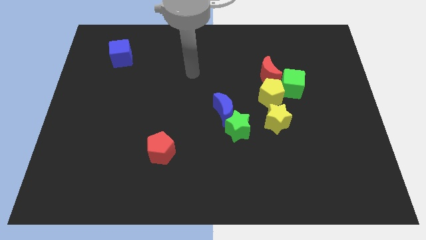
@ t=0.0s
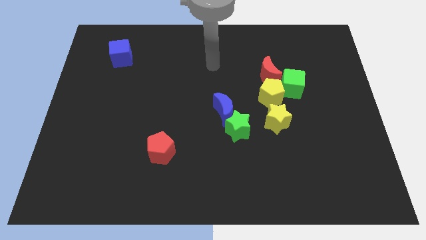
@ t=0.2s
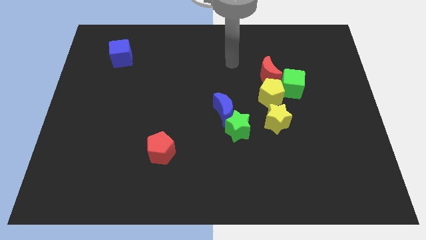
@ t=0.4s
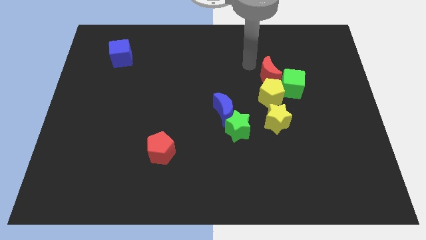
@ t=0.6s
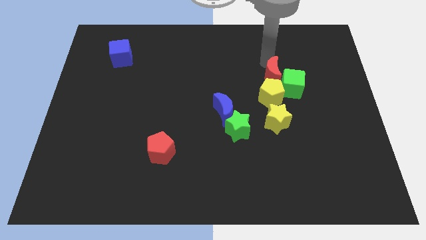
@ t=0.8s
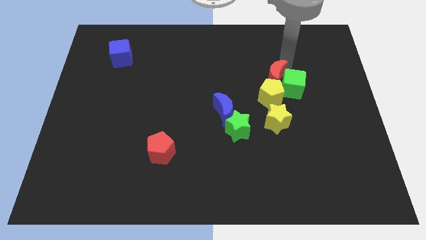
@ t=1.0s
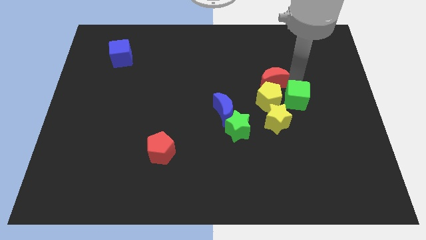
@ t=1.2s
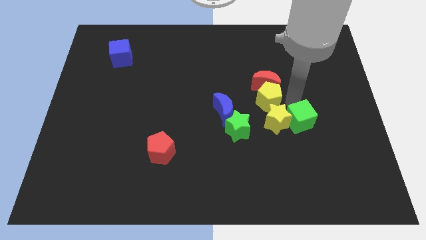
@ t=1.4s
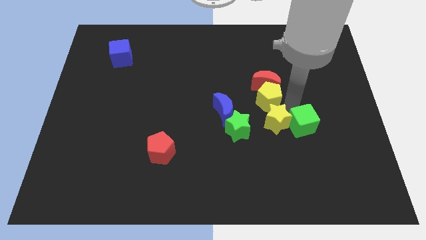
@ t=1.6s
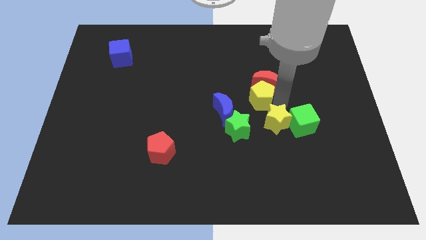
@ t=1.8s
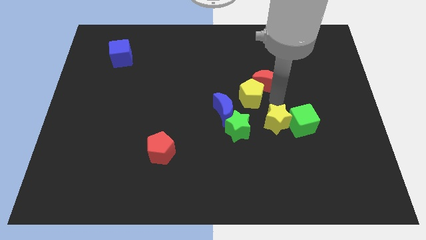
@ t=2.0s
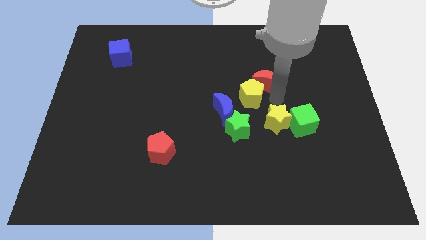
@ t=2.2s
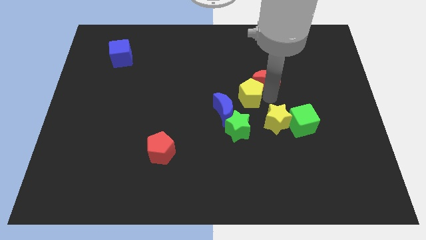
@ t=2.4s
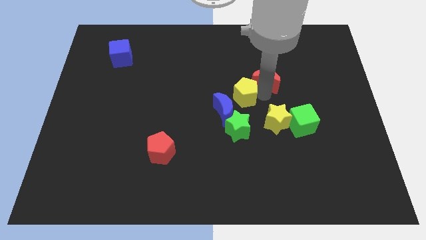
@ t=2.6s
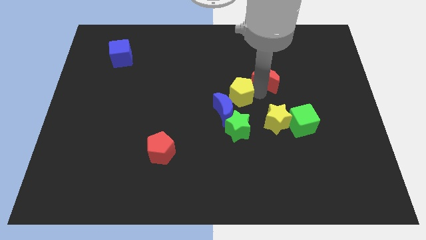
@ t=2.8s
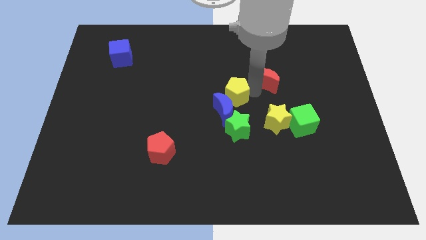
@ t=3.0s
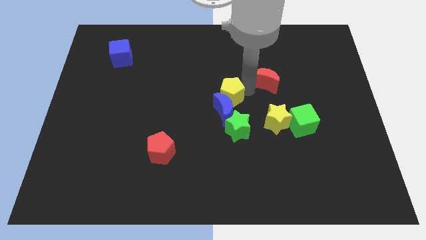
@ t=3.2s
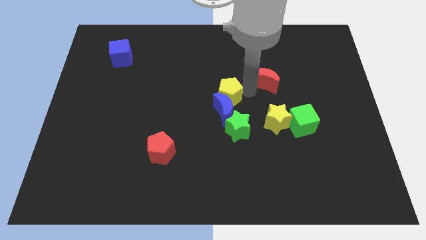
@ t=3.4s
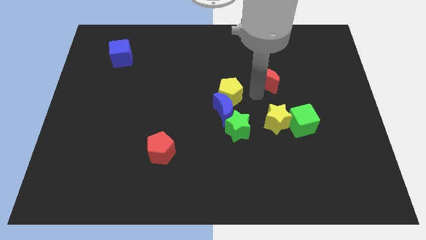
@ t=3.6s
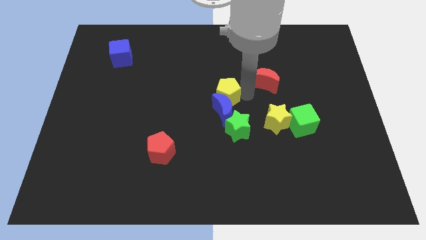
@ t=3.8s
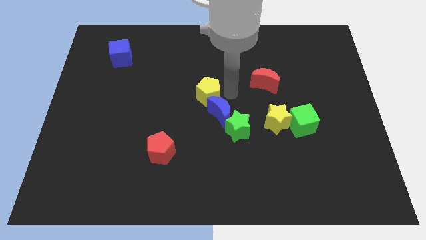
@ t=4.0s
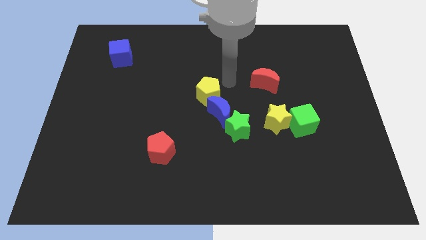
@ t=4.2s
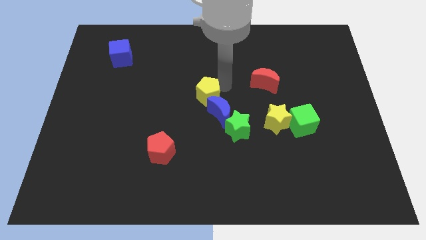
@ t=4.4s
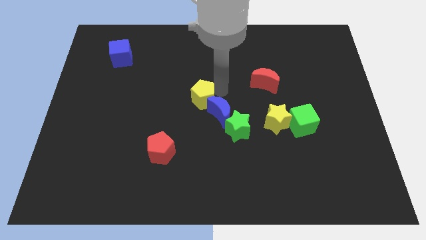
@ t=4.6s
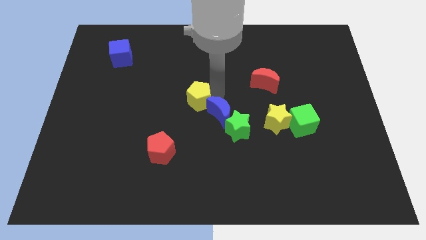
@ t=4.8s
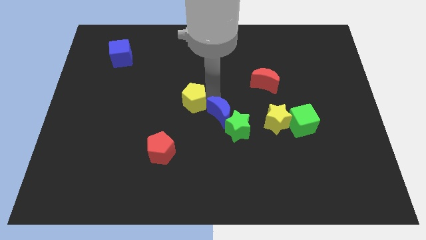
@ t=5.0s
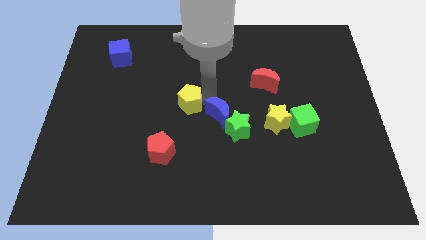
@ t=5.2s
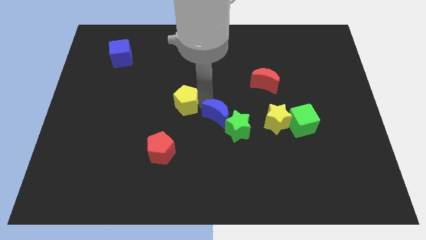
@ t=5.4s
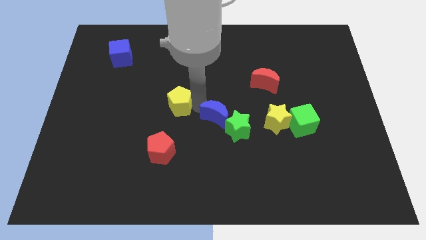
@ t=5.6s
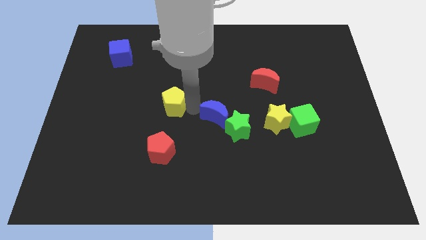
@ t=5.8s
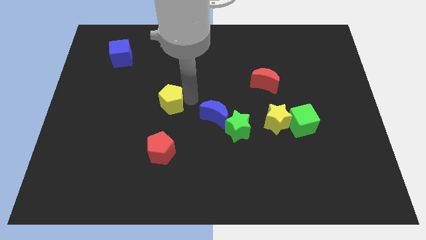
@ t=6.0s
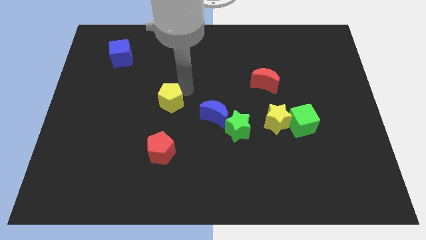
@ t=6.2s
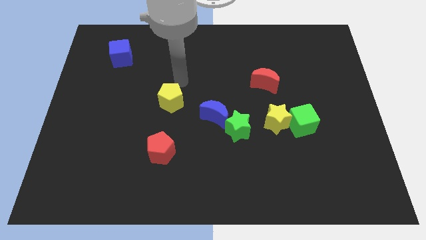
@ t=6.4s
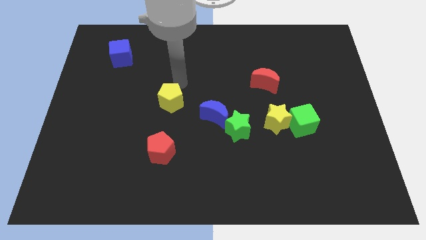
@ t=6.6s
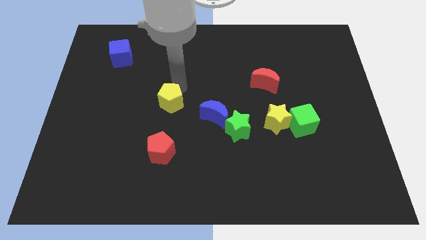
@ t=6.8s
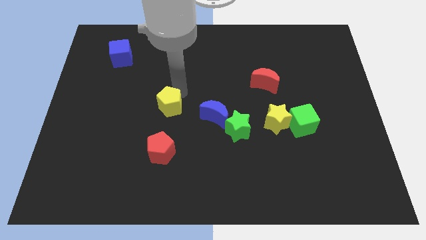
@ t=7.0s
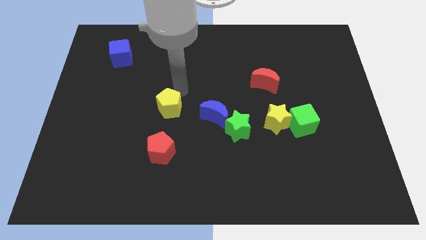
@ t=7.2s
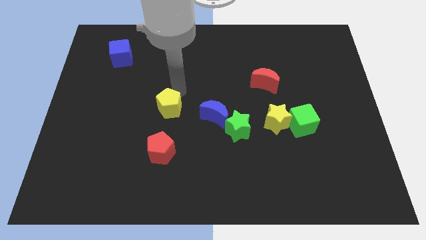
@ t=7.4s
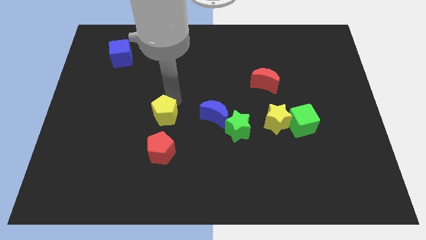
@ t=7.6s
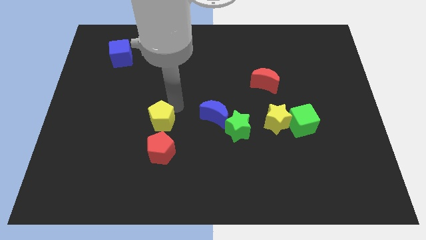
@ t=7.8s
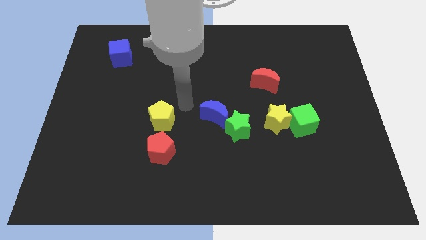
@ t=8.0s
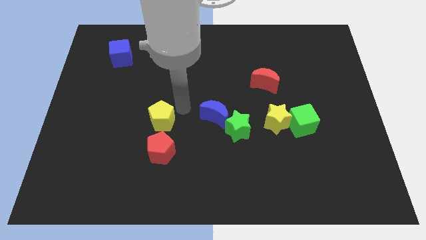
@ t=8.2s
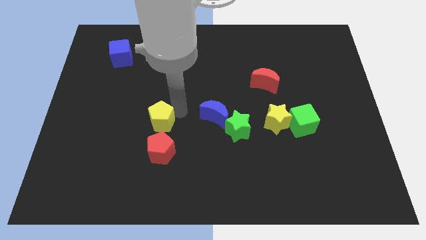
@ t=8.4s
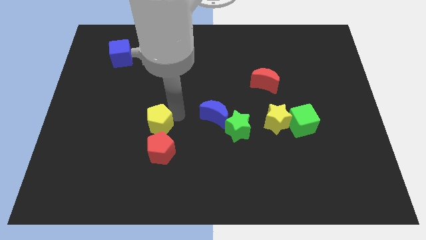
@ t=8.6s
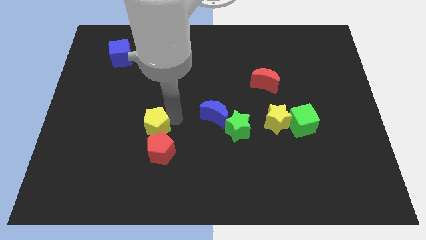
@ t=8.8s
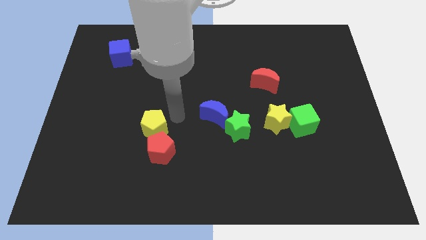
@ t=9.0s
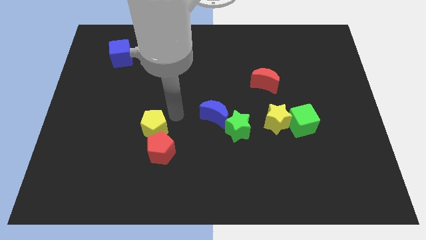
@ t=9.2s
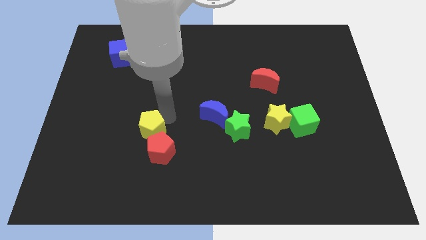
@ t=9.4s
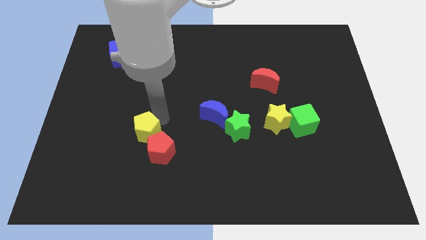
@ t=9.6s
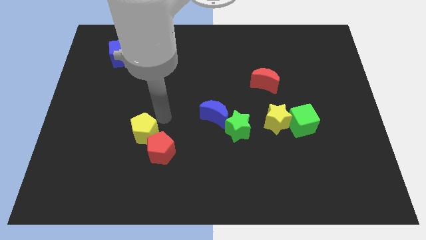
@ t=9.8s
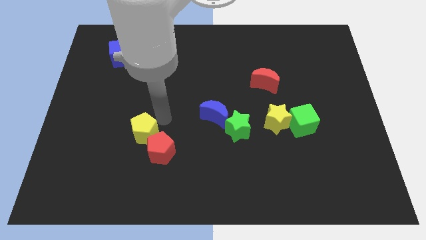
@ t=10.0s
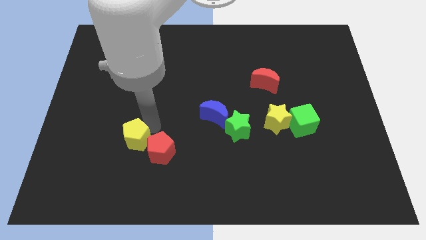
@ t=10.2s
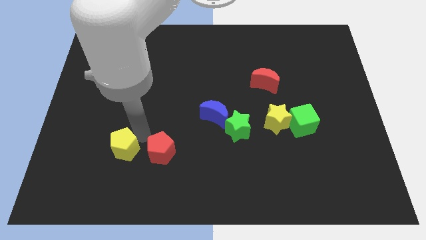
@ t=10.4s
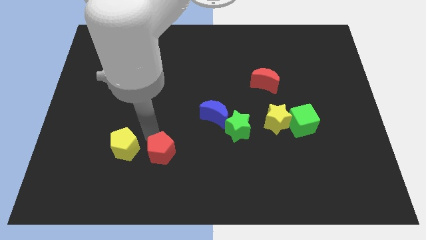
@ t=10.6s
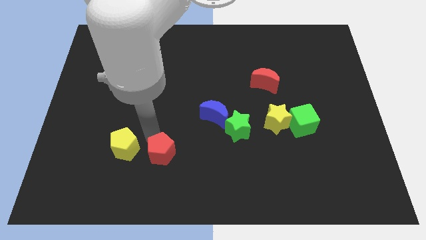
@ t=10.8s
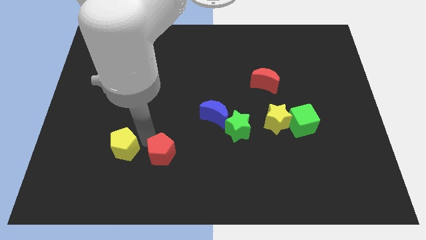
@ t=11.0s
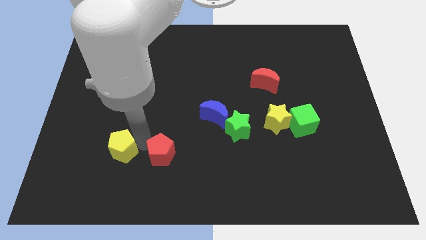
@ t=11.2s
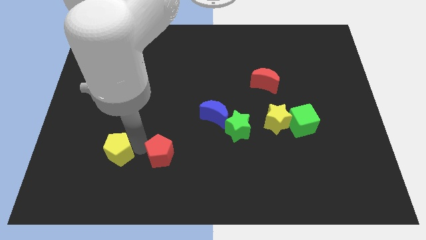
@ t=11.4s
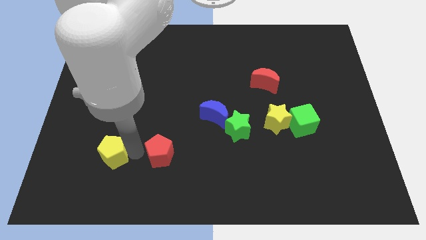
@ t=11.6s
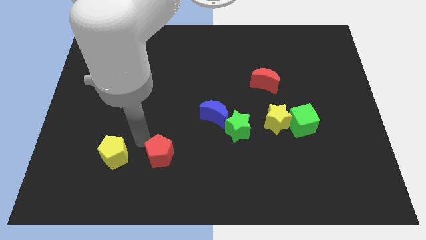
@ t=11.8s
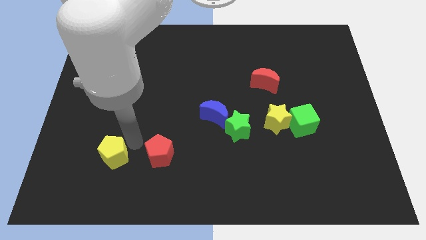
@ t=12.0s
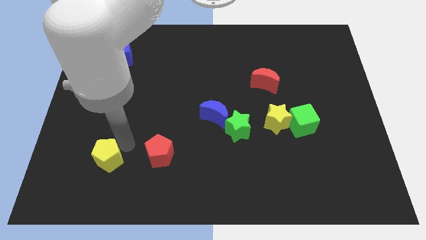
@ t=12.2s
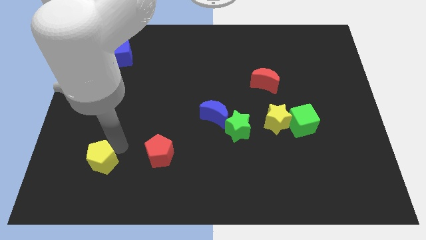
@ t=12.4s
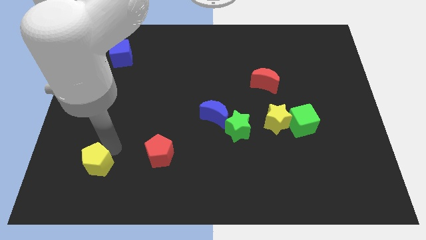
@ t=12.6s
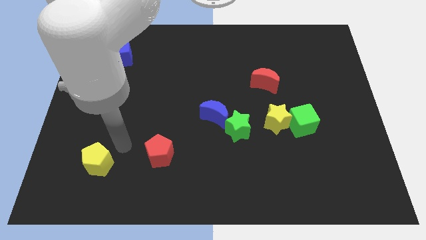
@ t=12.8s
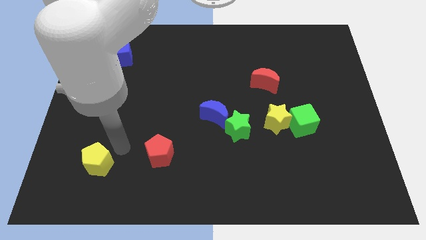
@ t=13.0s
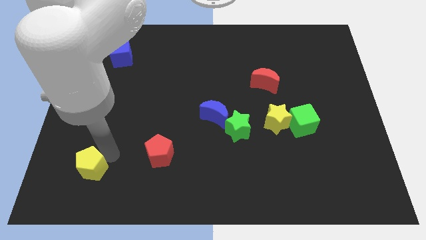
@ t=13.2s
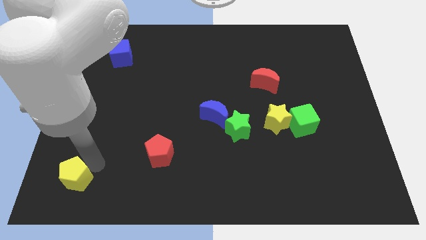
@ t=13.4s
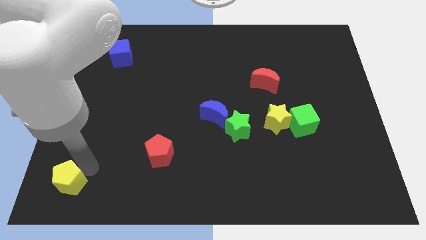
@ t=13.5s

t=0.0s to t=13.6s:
put the yellow pentagon to the bottom left
